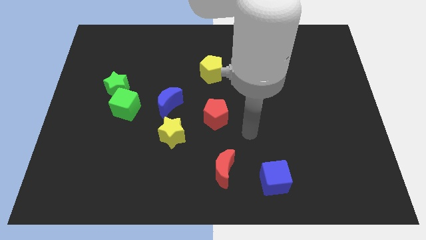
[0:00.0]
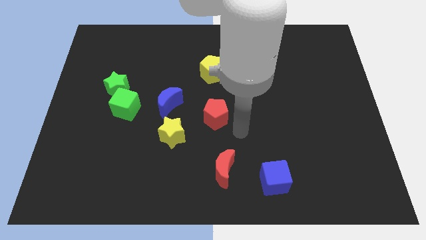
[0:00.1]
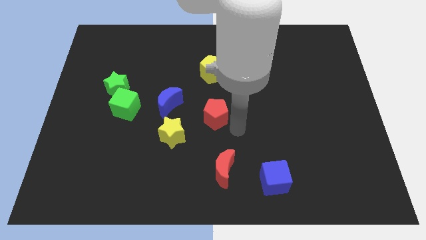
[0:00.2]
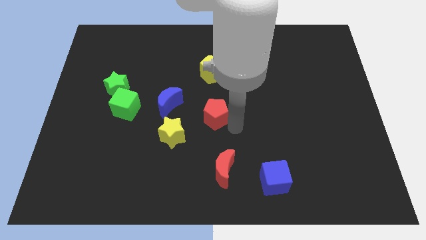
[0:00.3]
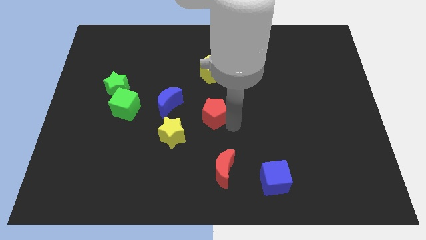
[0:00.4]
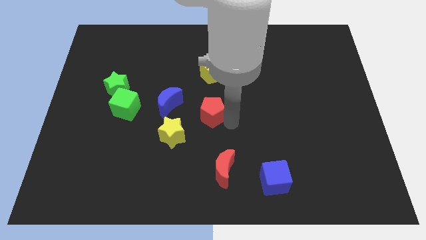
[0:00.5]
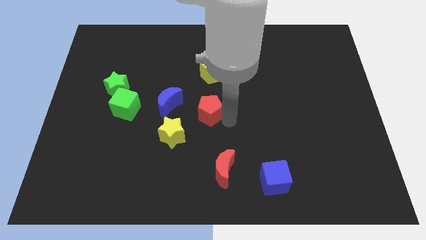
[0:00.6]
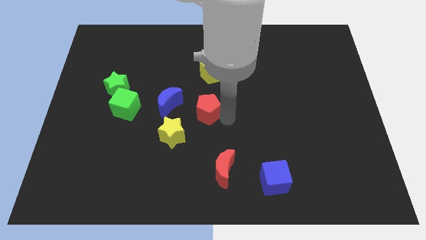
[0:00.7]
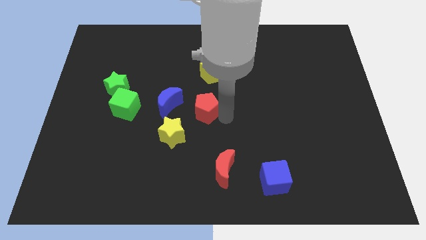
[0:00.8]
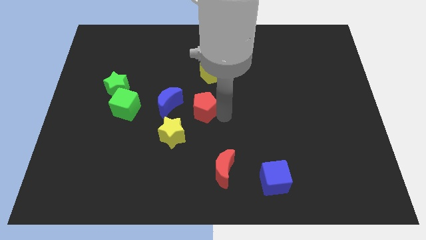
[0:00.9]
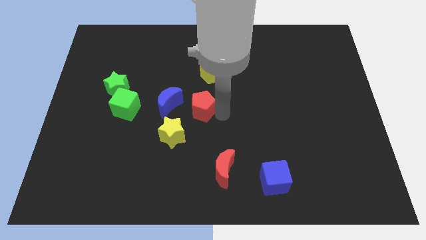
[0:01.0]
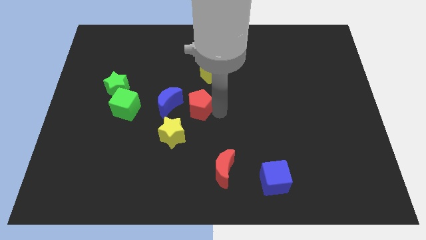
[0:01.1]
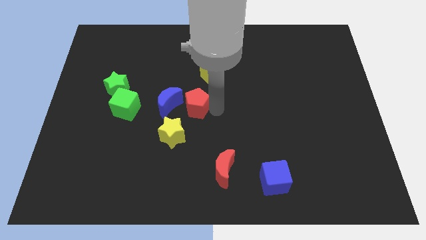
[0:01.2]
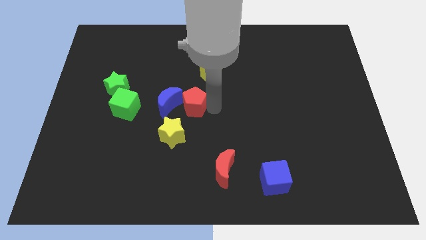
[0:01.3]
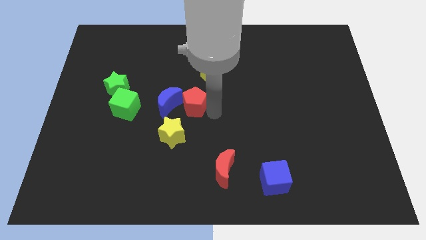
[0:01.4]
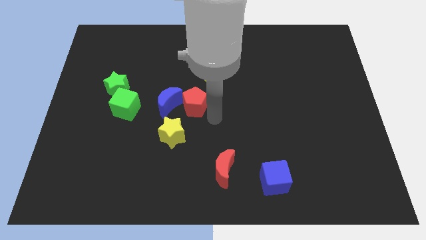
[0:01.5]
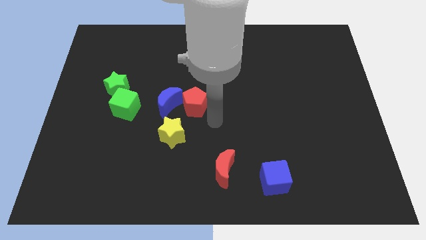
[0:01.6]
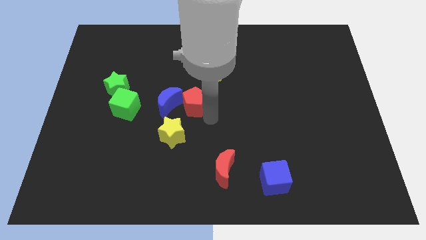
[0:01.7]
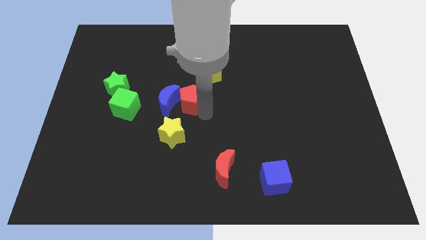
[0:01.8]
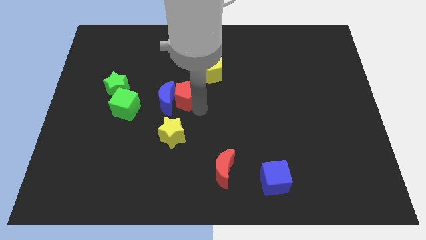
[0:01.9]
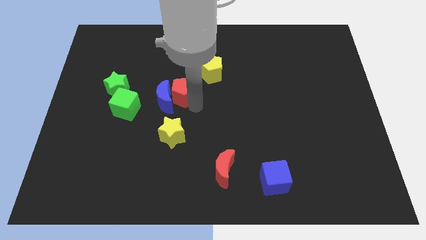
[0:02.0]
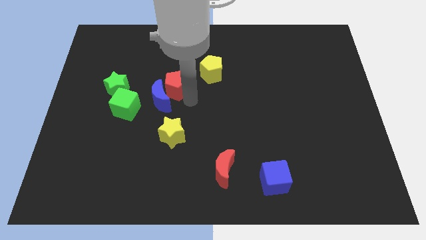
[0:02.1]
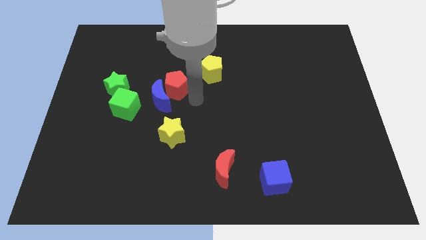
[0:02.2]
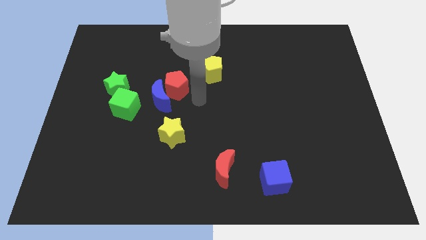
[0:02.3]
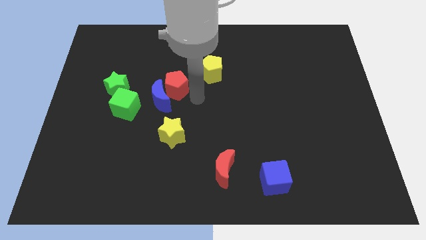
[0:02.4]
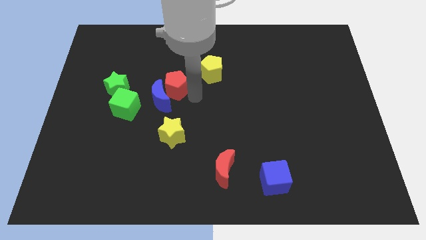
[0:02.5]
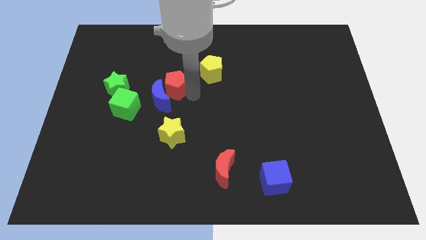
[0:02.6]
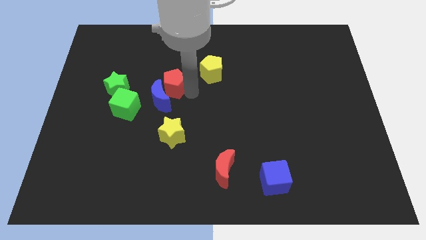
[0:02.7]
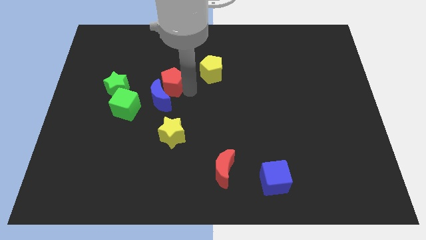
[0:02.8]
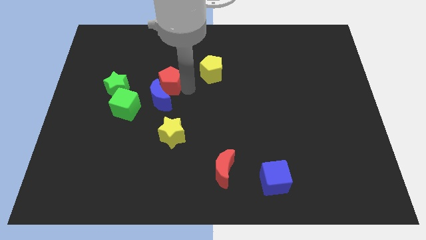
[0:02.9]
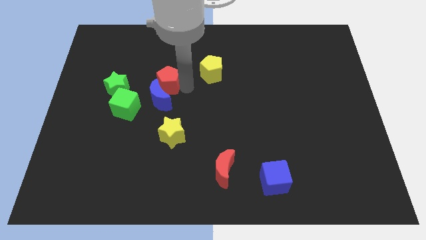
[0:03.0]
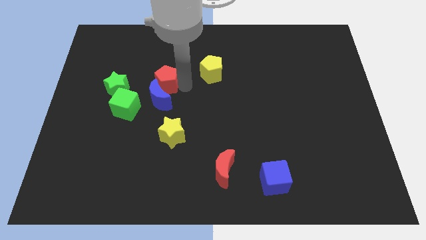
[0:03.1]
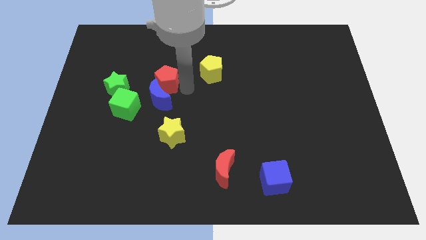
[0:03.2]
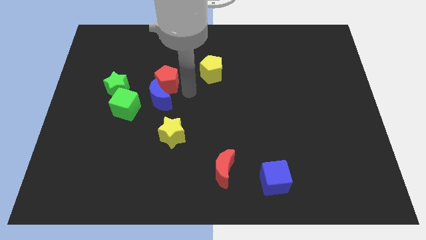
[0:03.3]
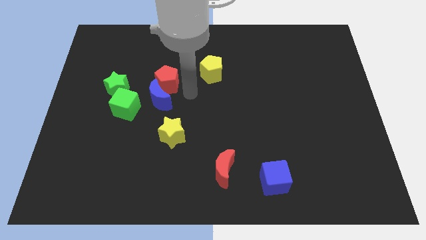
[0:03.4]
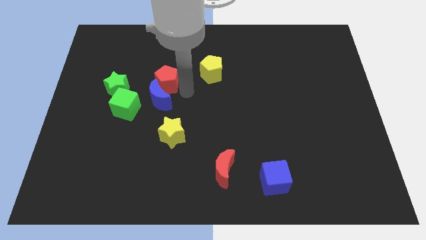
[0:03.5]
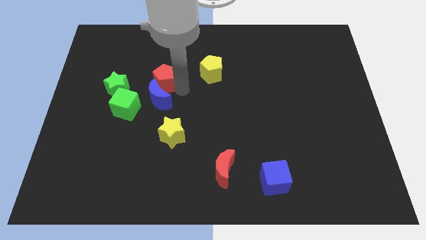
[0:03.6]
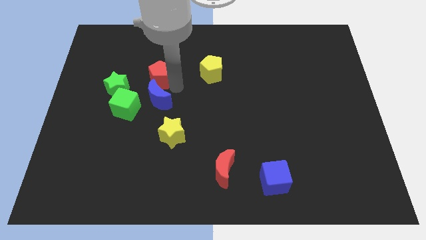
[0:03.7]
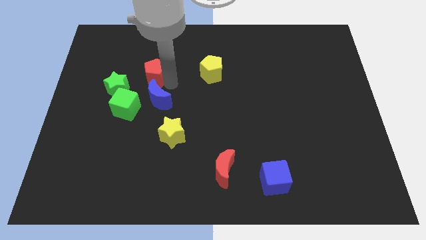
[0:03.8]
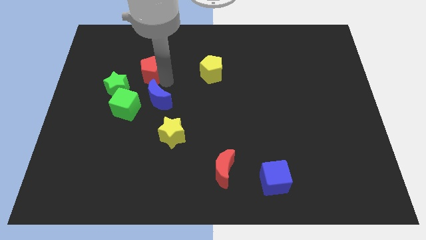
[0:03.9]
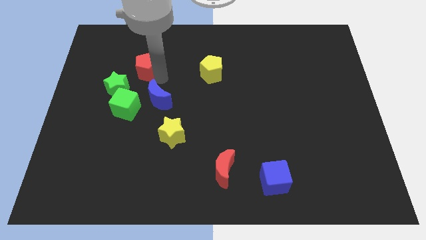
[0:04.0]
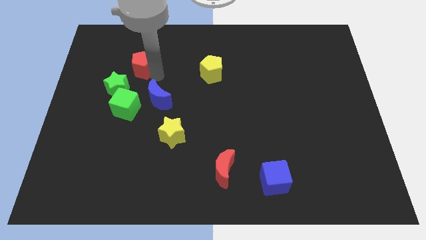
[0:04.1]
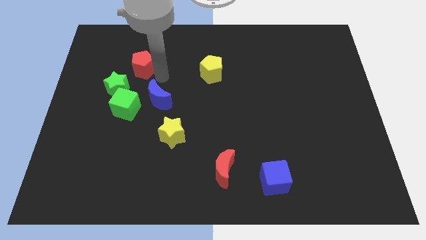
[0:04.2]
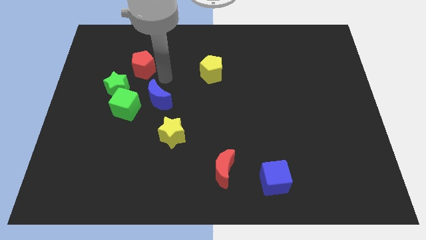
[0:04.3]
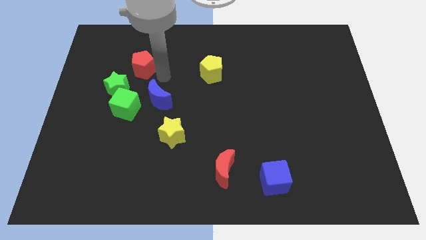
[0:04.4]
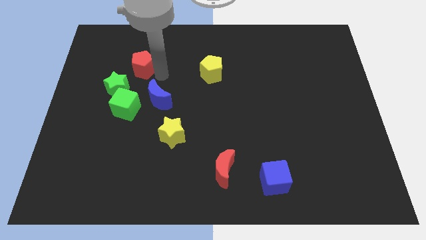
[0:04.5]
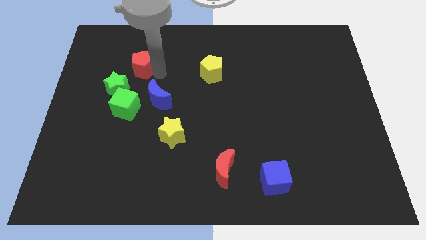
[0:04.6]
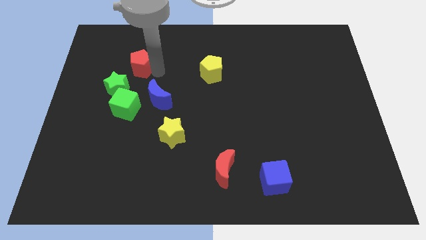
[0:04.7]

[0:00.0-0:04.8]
push the red pentagon to the top of the green star

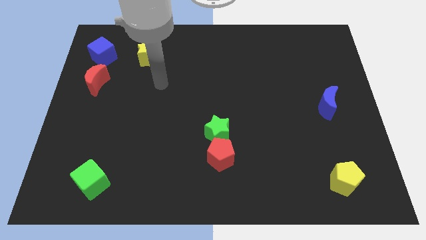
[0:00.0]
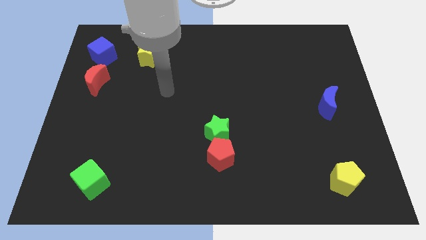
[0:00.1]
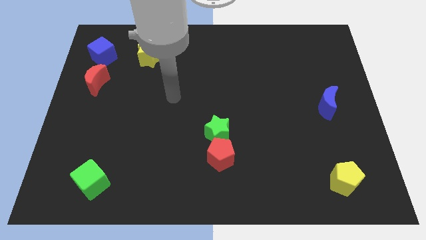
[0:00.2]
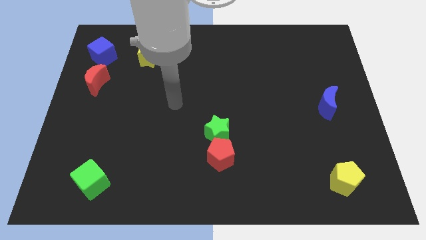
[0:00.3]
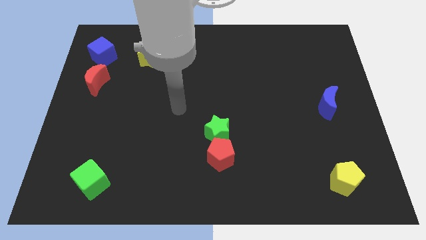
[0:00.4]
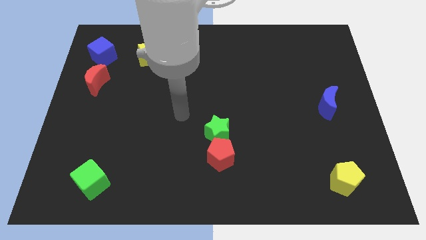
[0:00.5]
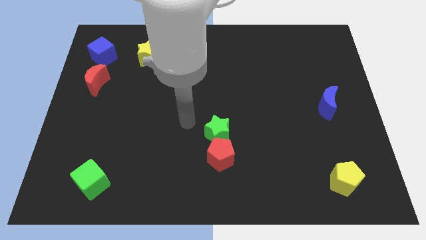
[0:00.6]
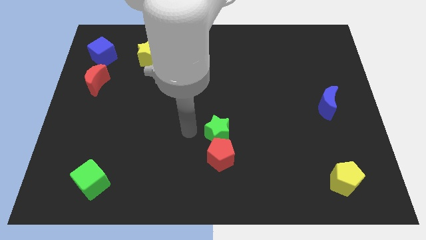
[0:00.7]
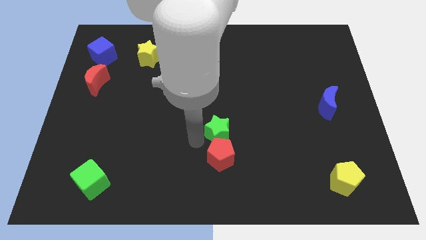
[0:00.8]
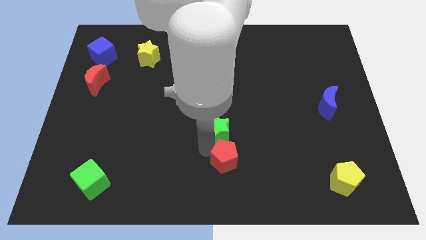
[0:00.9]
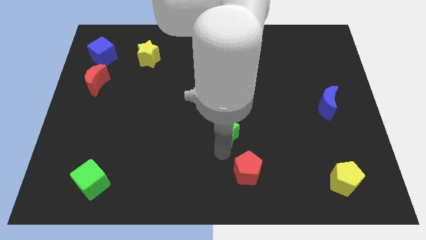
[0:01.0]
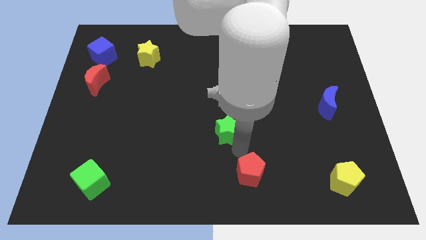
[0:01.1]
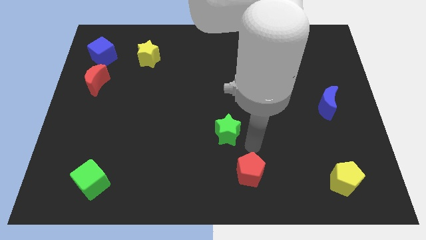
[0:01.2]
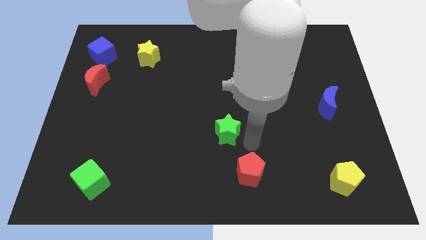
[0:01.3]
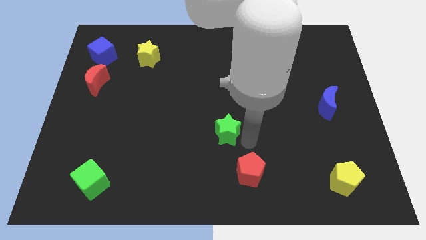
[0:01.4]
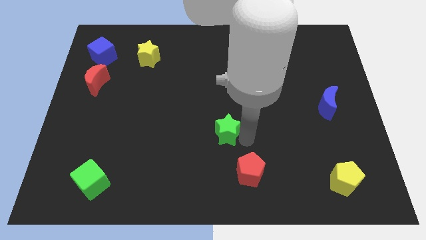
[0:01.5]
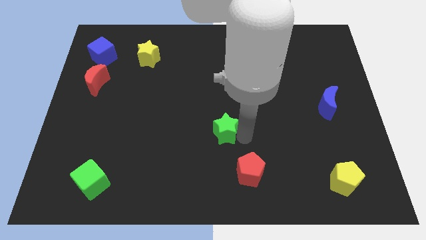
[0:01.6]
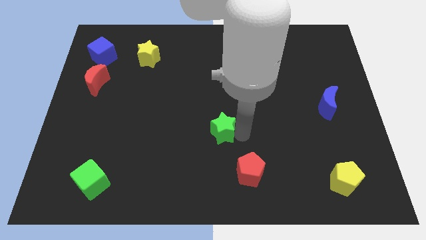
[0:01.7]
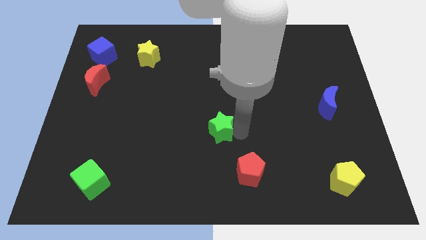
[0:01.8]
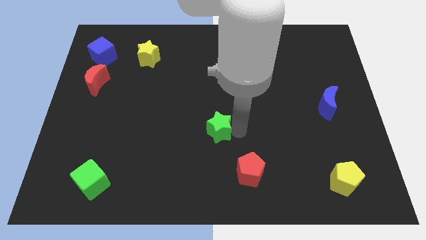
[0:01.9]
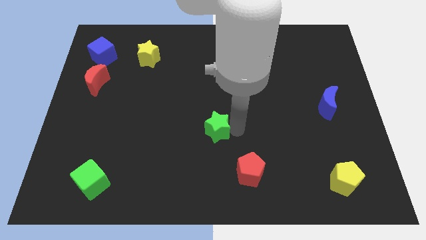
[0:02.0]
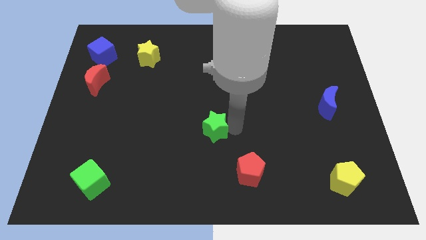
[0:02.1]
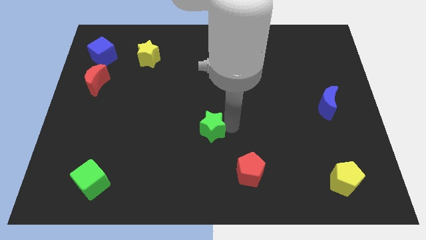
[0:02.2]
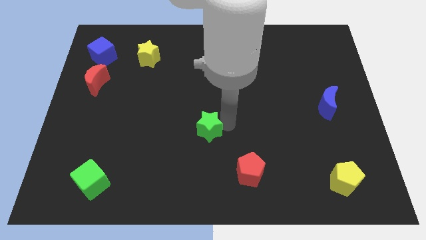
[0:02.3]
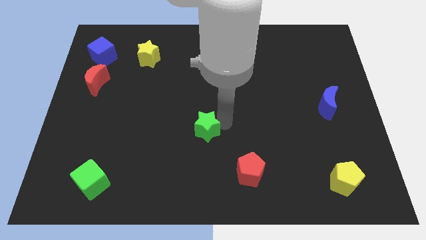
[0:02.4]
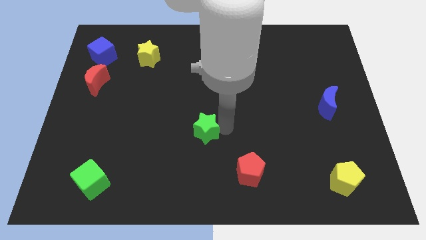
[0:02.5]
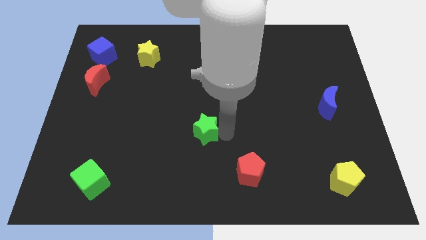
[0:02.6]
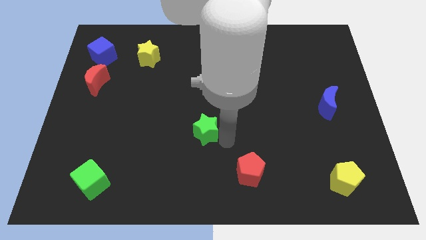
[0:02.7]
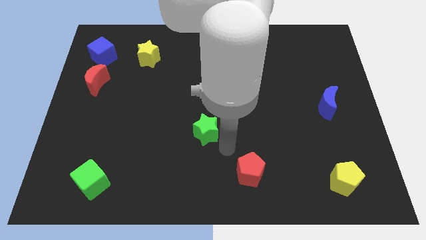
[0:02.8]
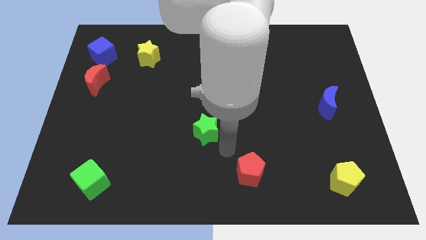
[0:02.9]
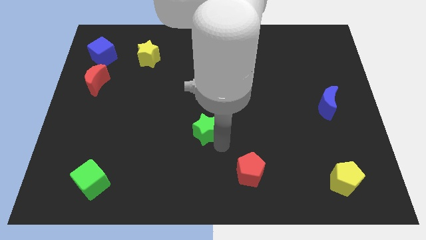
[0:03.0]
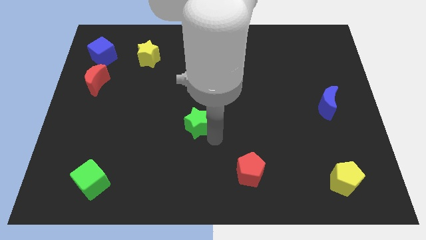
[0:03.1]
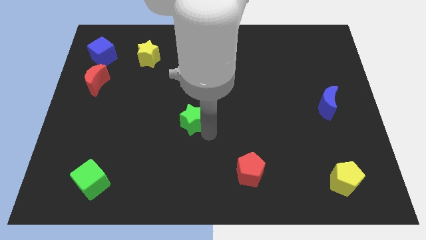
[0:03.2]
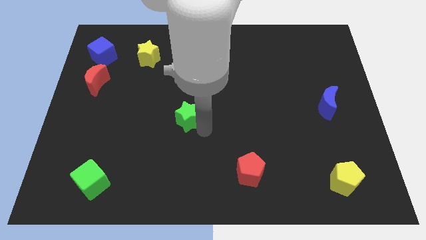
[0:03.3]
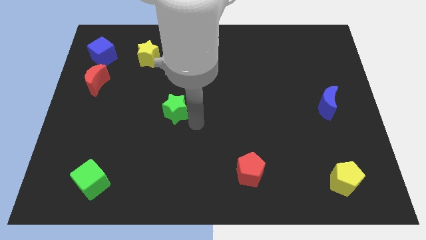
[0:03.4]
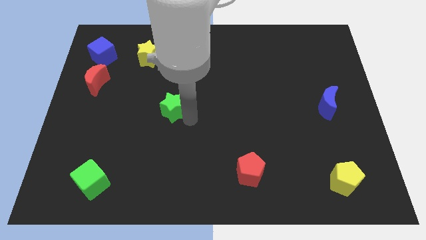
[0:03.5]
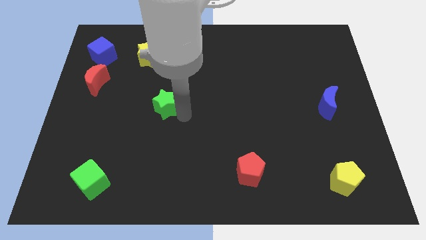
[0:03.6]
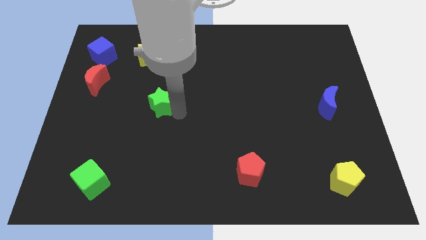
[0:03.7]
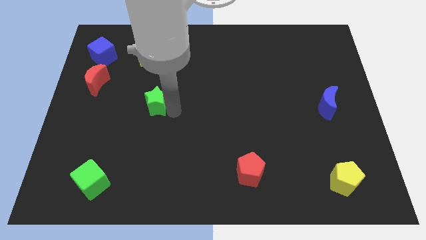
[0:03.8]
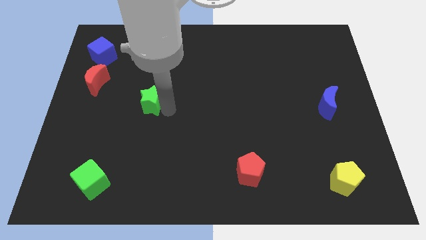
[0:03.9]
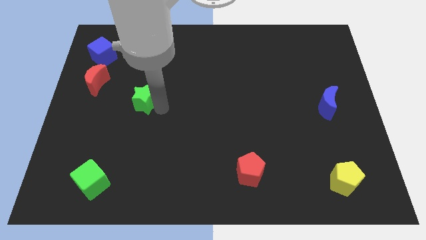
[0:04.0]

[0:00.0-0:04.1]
move the green star to the bottom side of the yellow star
